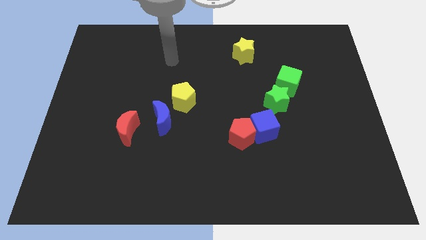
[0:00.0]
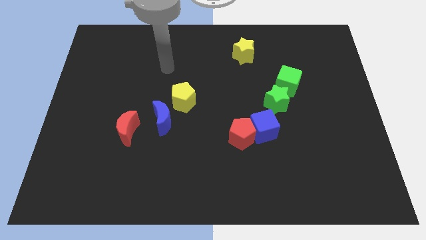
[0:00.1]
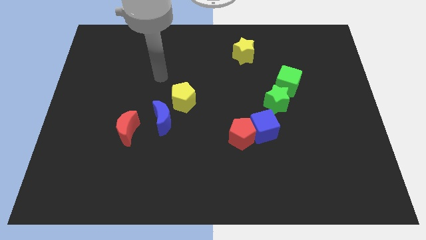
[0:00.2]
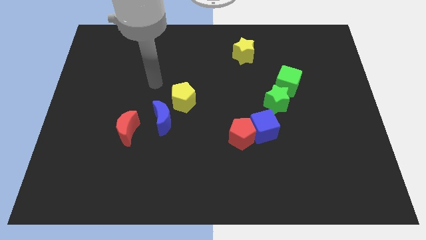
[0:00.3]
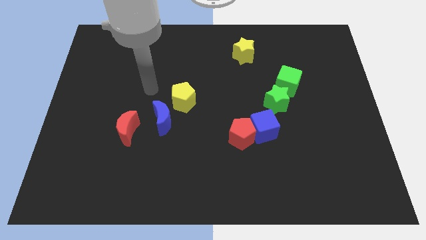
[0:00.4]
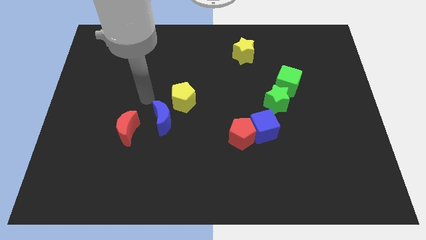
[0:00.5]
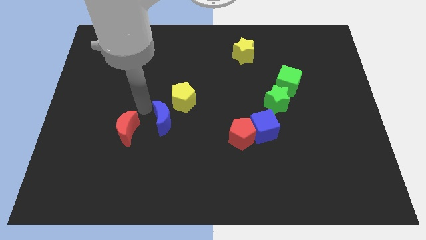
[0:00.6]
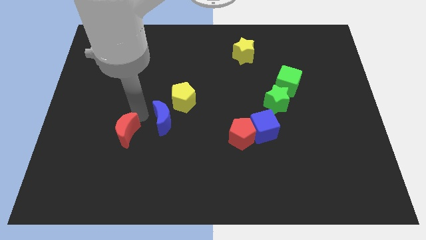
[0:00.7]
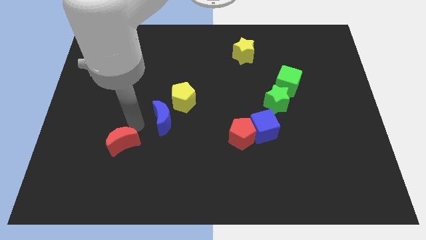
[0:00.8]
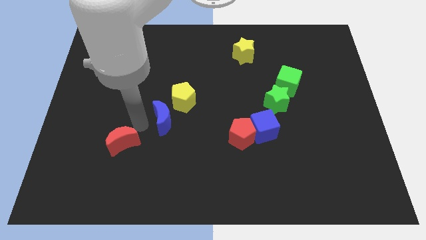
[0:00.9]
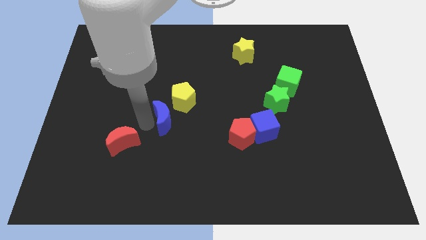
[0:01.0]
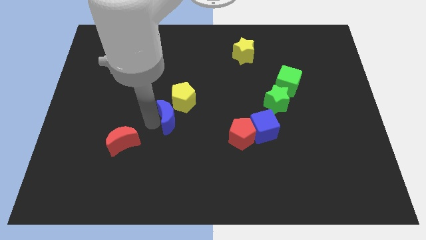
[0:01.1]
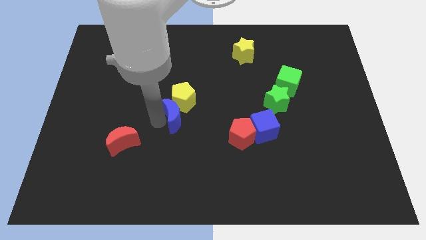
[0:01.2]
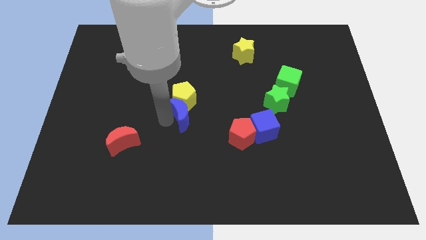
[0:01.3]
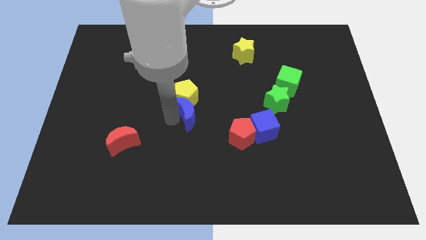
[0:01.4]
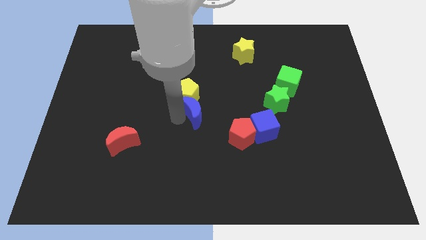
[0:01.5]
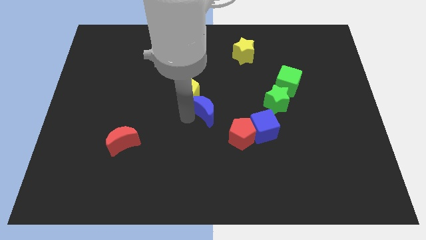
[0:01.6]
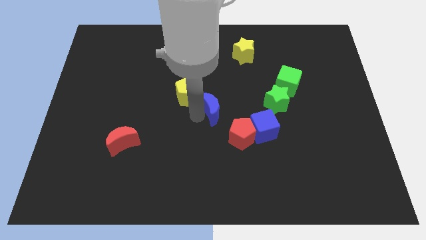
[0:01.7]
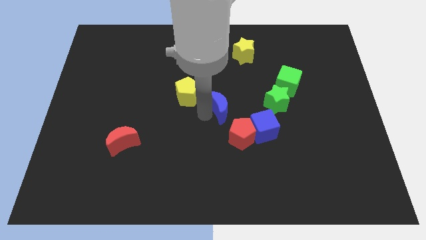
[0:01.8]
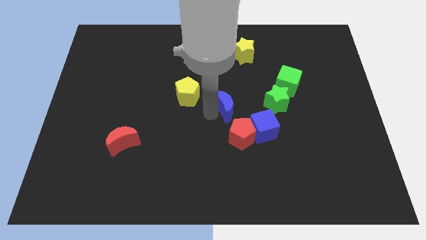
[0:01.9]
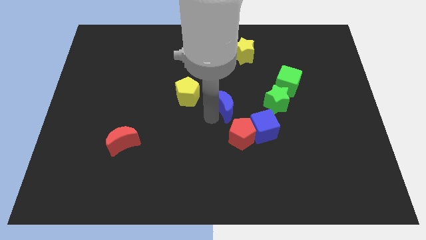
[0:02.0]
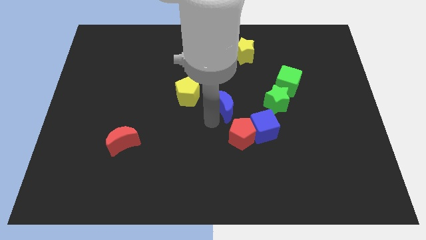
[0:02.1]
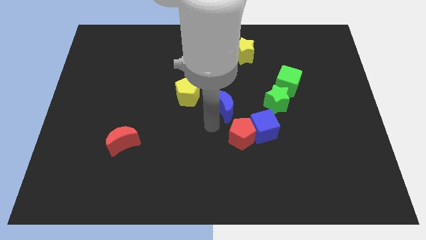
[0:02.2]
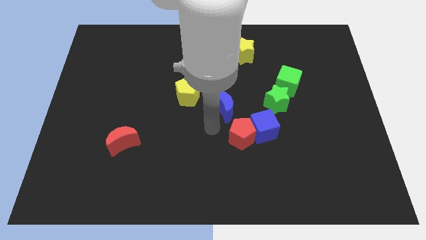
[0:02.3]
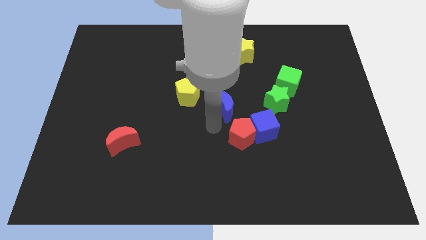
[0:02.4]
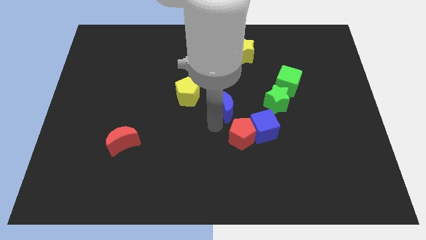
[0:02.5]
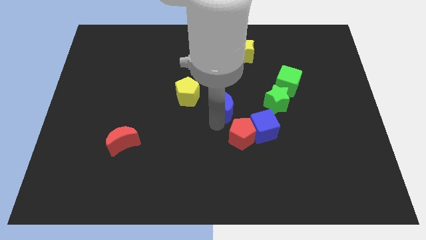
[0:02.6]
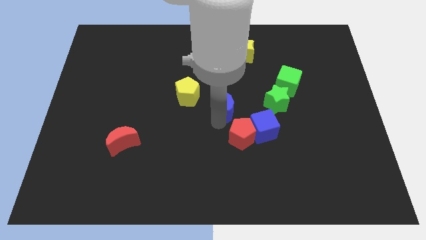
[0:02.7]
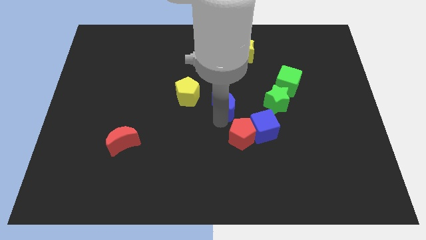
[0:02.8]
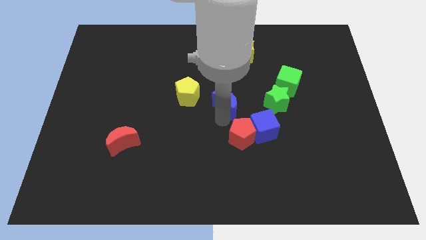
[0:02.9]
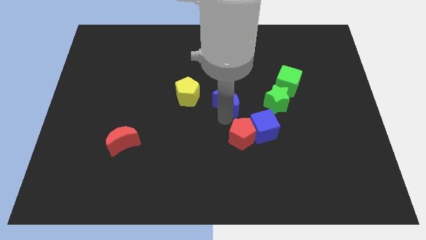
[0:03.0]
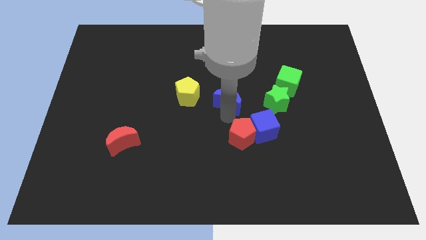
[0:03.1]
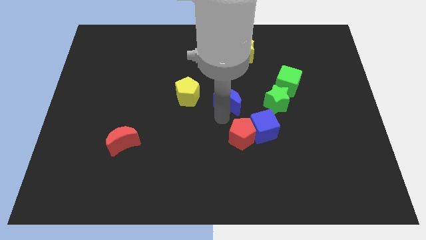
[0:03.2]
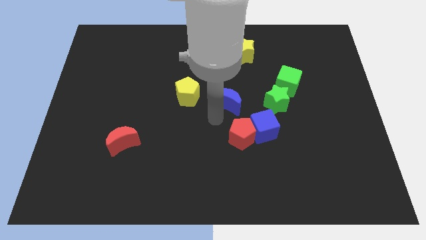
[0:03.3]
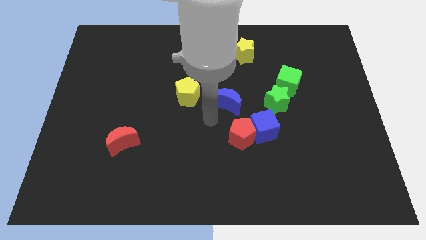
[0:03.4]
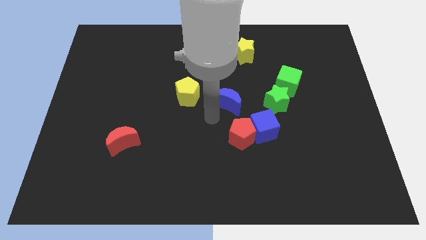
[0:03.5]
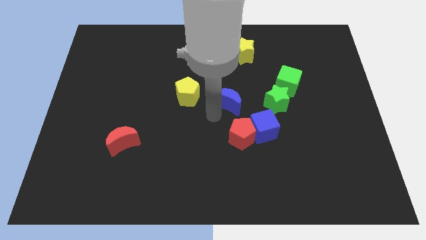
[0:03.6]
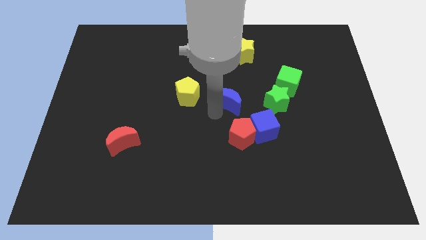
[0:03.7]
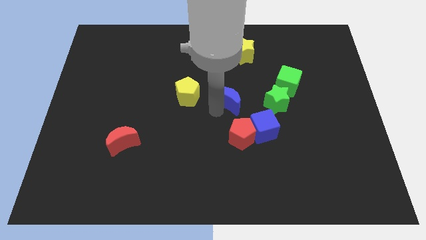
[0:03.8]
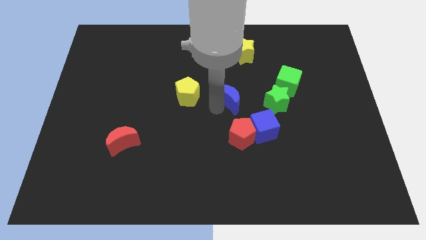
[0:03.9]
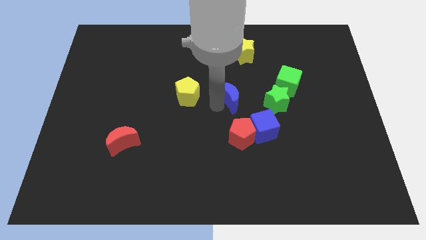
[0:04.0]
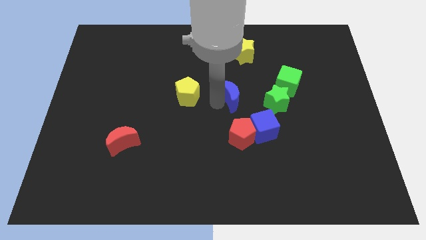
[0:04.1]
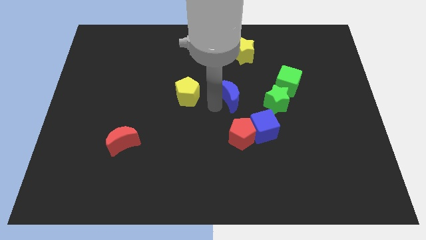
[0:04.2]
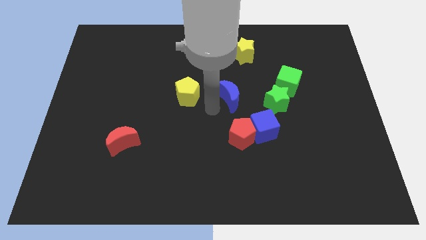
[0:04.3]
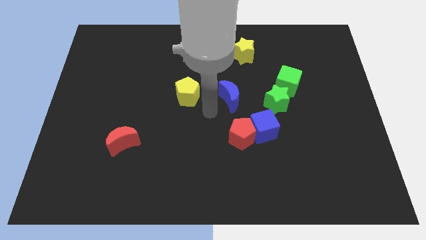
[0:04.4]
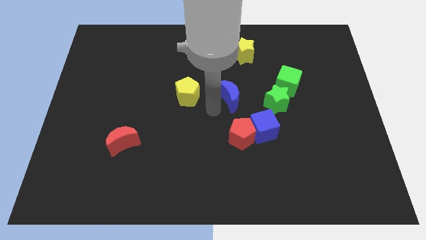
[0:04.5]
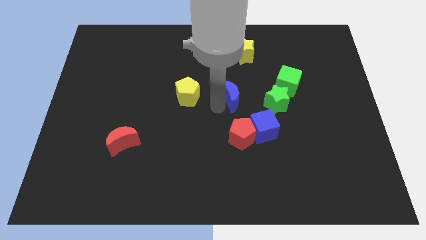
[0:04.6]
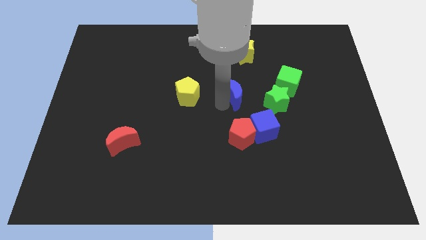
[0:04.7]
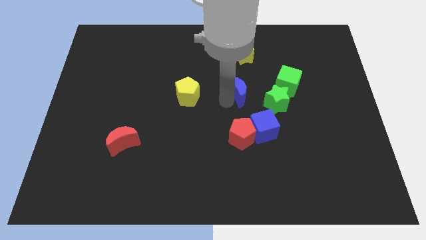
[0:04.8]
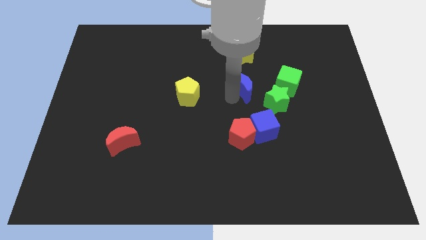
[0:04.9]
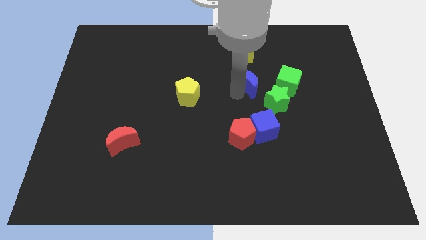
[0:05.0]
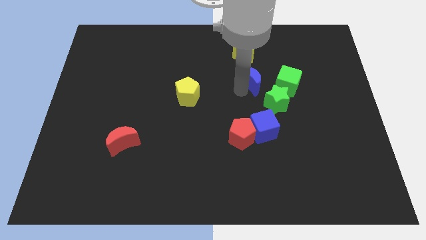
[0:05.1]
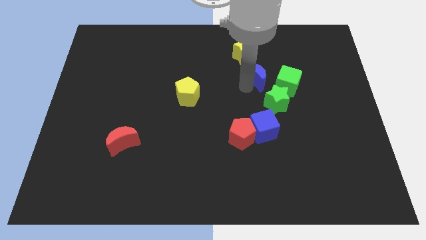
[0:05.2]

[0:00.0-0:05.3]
push the blue moon to the bottom right of the yellow star

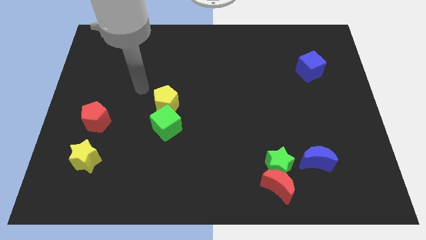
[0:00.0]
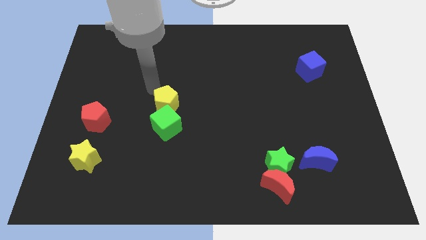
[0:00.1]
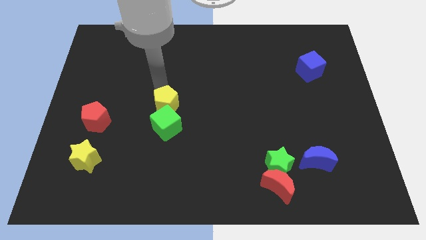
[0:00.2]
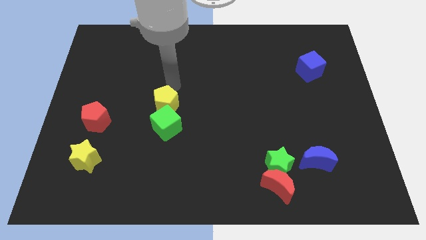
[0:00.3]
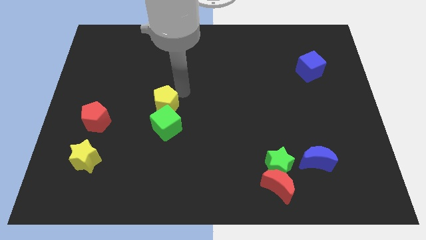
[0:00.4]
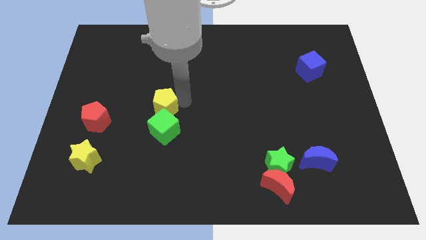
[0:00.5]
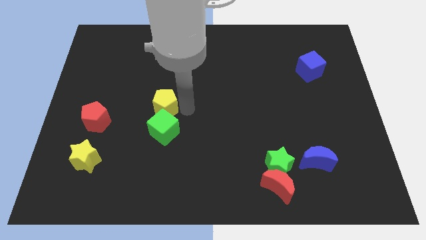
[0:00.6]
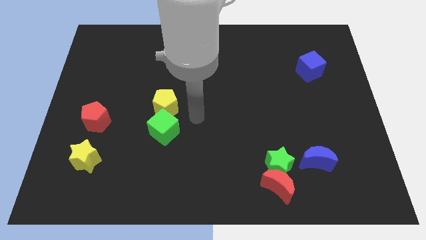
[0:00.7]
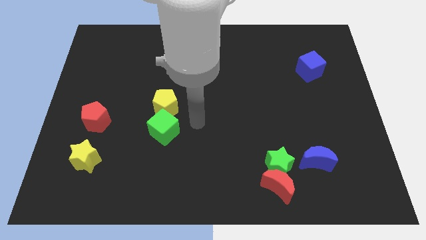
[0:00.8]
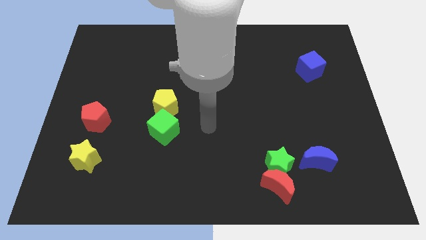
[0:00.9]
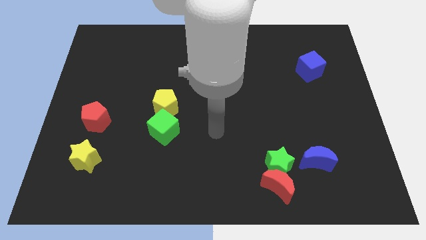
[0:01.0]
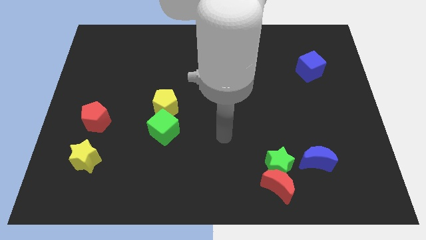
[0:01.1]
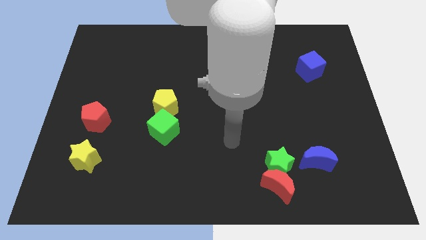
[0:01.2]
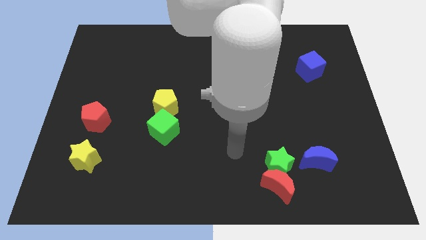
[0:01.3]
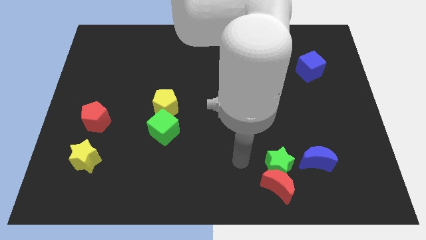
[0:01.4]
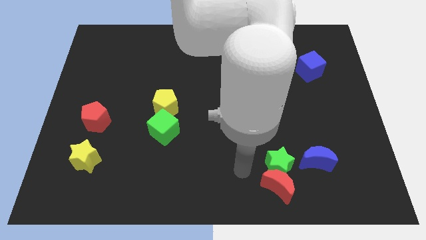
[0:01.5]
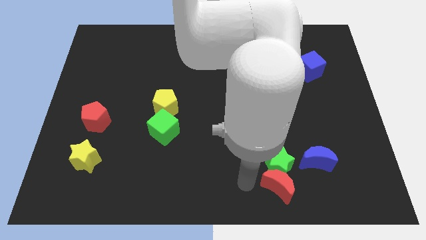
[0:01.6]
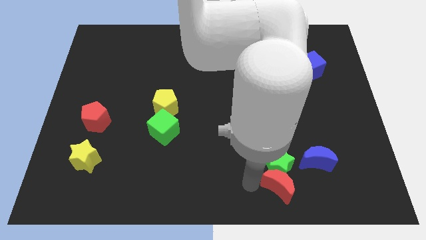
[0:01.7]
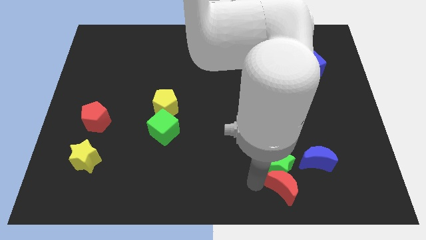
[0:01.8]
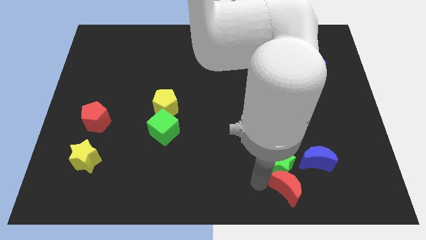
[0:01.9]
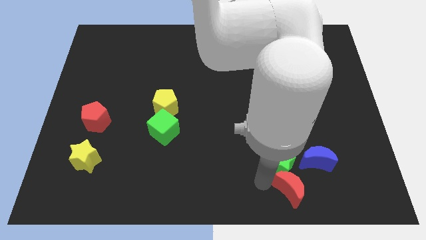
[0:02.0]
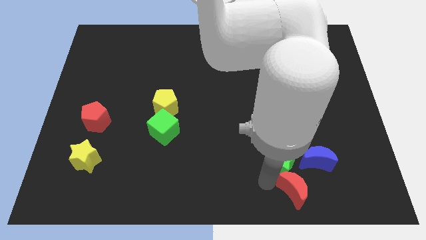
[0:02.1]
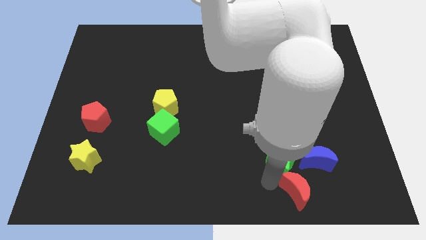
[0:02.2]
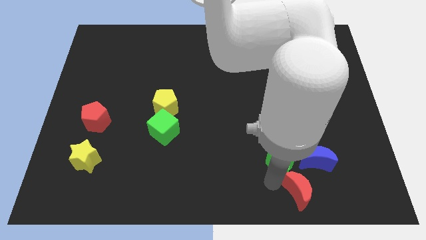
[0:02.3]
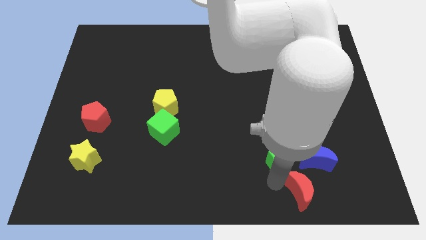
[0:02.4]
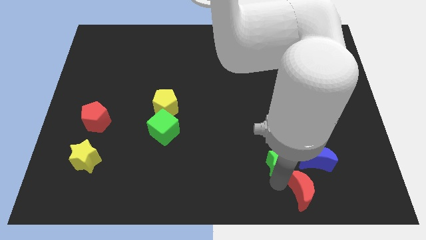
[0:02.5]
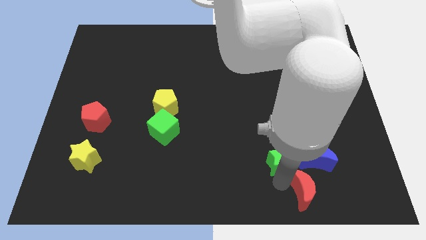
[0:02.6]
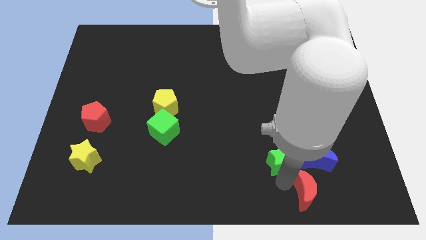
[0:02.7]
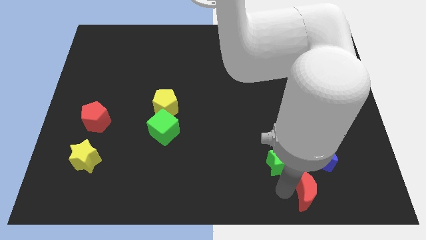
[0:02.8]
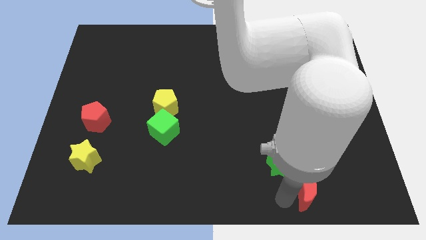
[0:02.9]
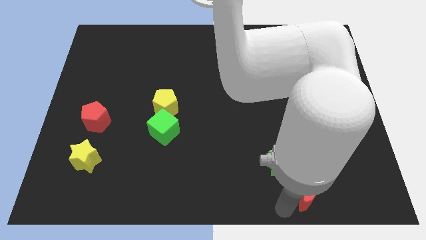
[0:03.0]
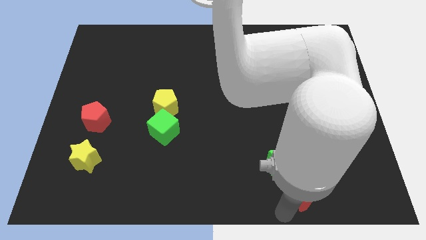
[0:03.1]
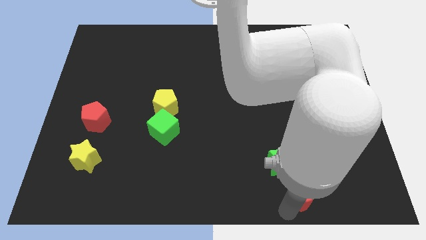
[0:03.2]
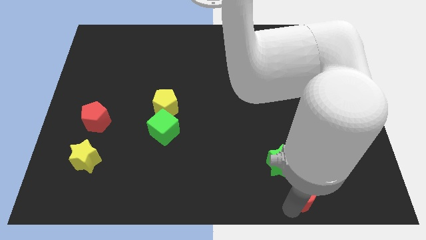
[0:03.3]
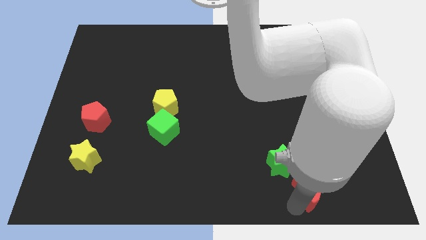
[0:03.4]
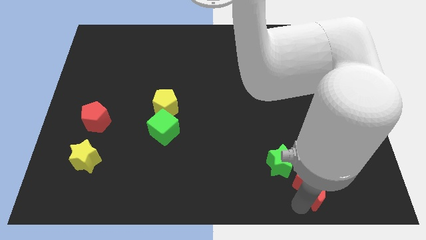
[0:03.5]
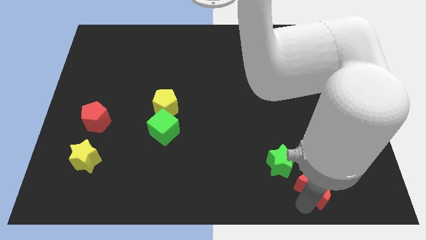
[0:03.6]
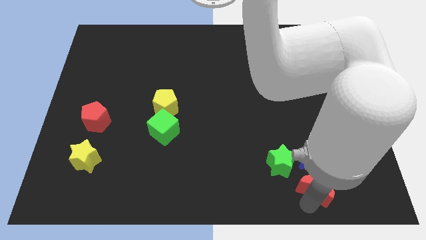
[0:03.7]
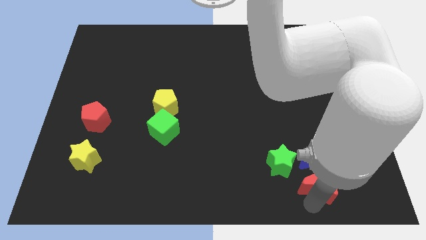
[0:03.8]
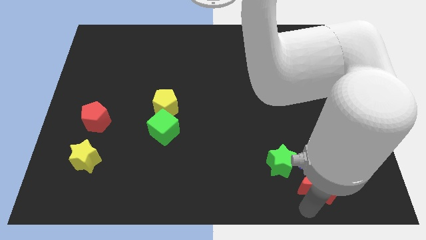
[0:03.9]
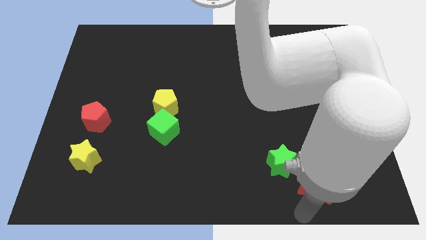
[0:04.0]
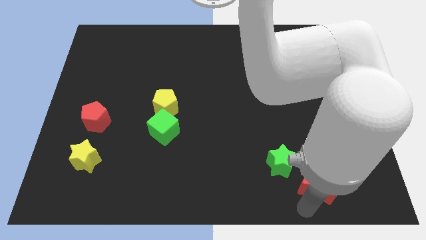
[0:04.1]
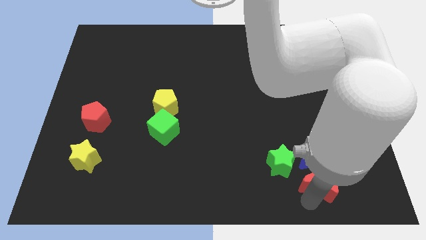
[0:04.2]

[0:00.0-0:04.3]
slide the red moon just right of the green star
